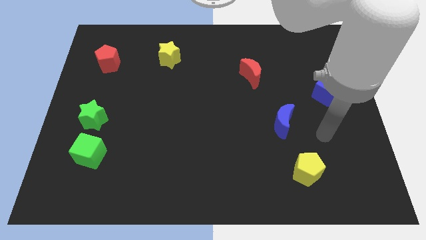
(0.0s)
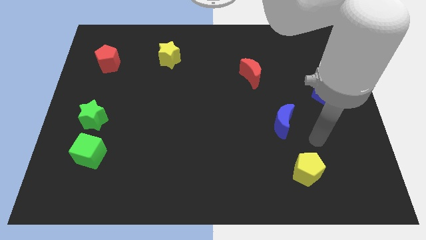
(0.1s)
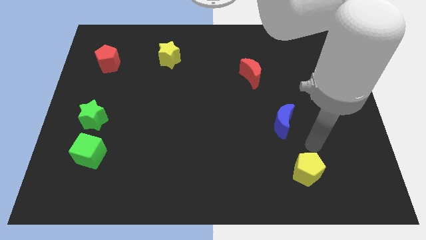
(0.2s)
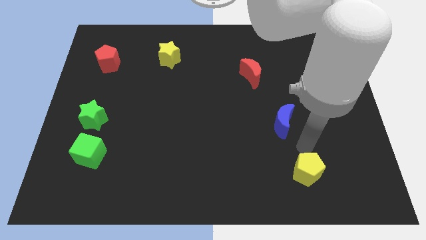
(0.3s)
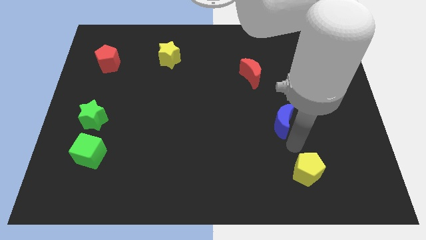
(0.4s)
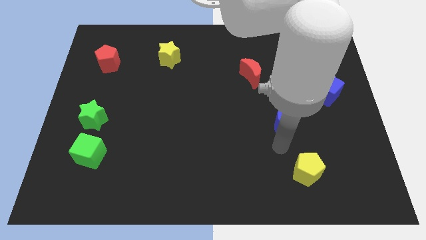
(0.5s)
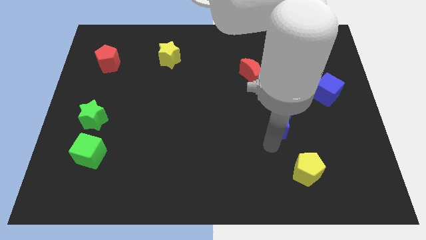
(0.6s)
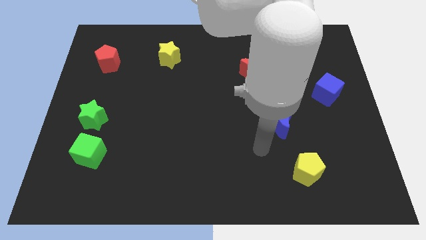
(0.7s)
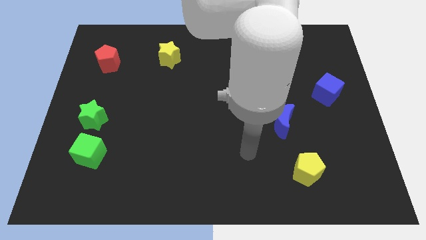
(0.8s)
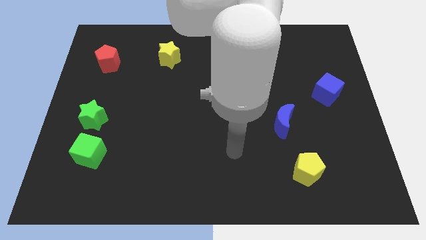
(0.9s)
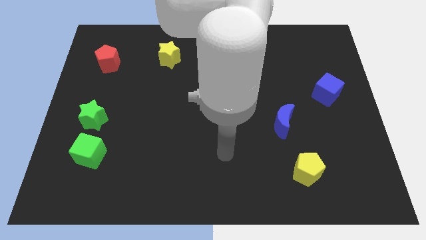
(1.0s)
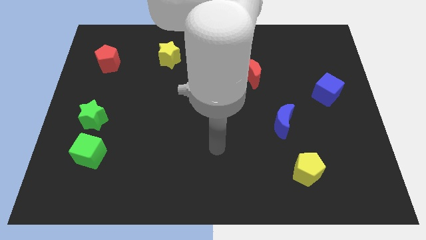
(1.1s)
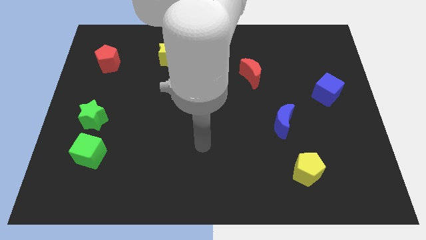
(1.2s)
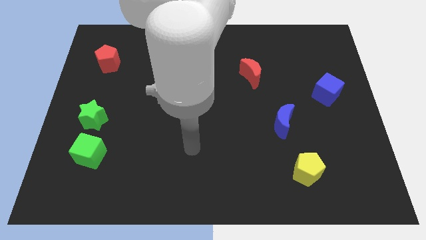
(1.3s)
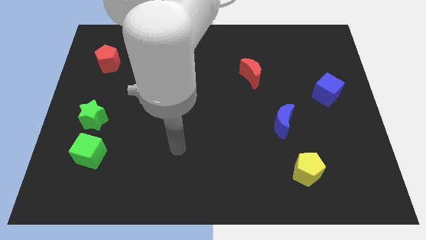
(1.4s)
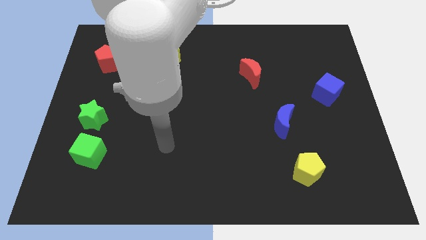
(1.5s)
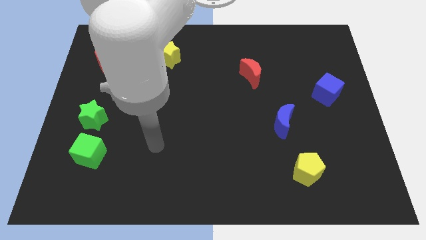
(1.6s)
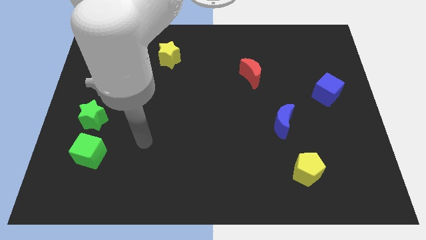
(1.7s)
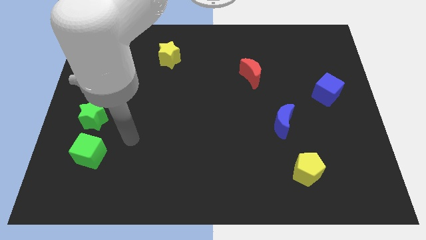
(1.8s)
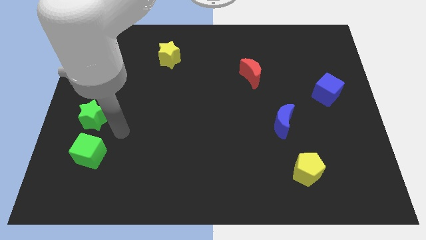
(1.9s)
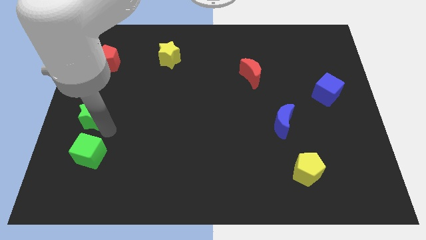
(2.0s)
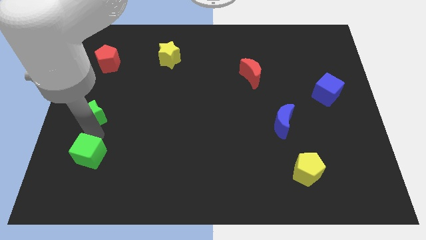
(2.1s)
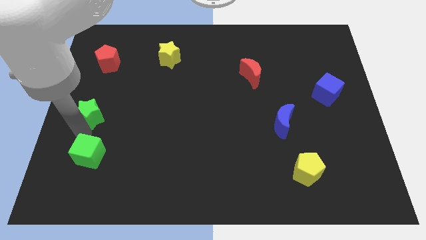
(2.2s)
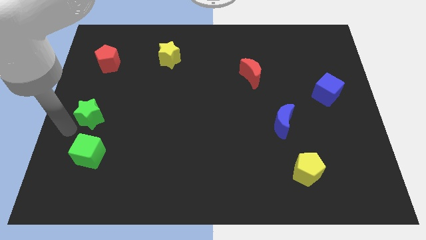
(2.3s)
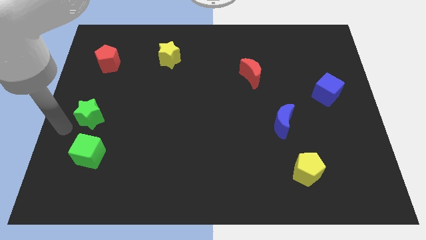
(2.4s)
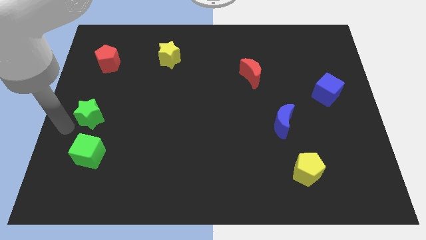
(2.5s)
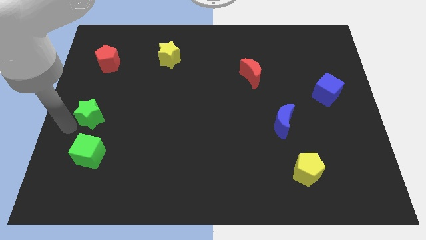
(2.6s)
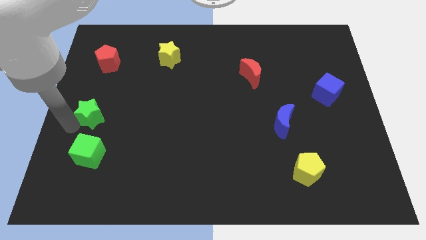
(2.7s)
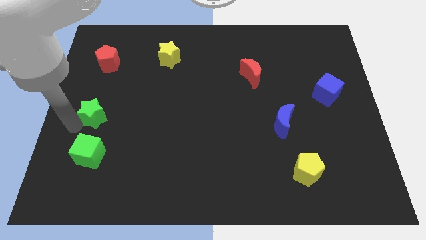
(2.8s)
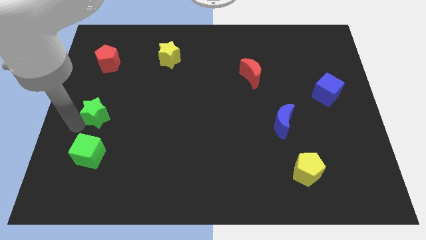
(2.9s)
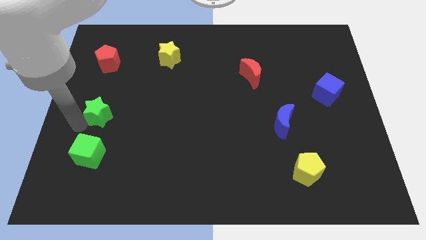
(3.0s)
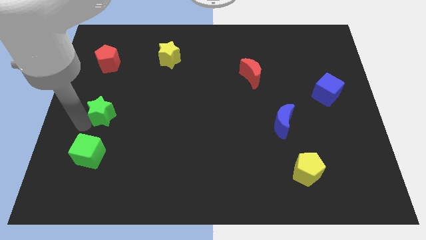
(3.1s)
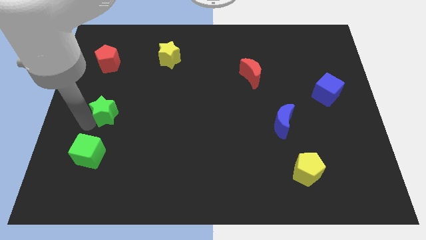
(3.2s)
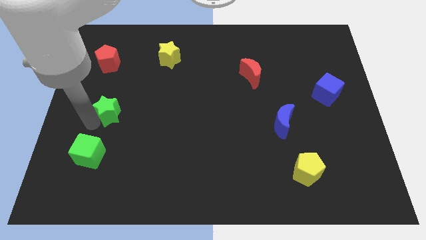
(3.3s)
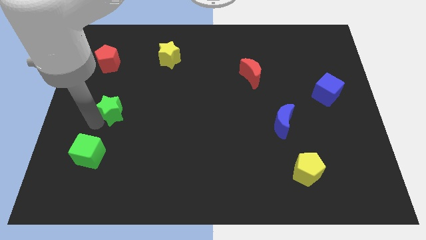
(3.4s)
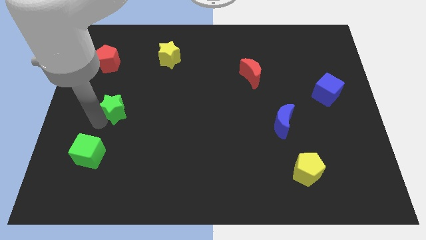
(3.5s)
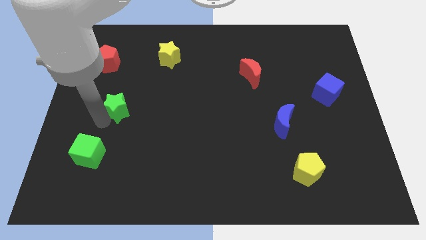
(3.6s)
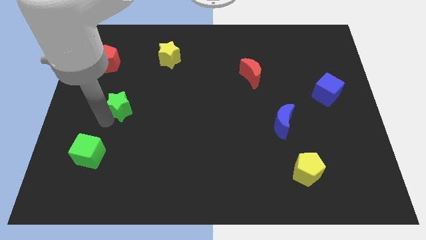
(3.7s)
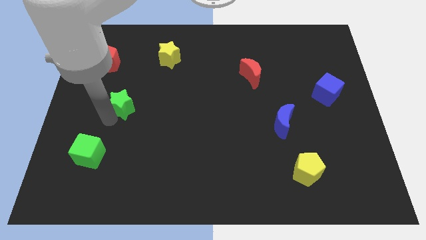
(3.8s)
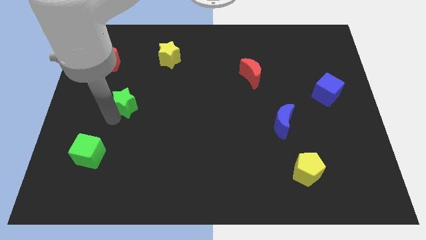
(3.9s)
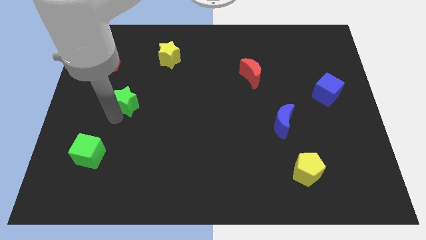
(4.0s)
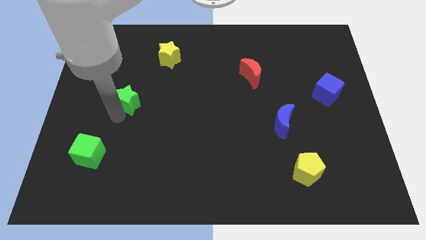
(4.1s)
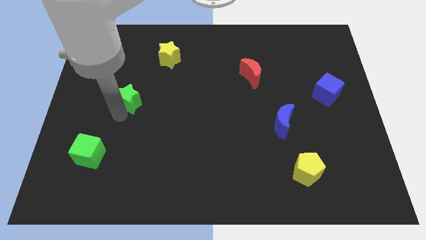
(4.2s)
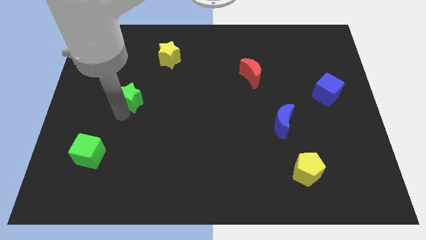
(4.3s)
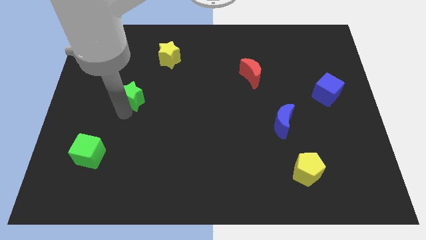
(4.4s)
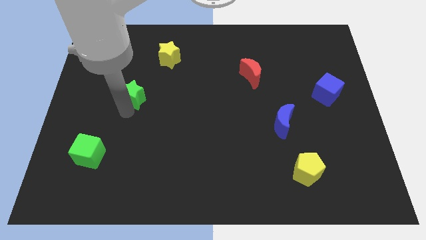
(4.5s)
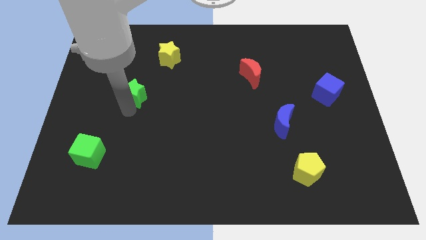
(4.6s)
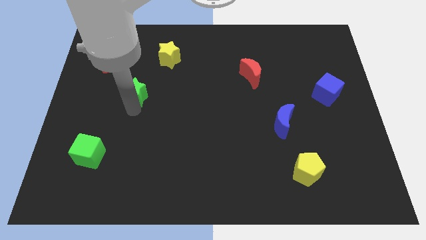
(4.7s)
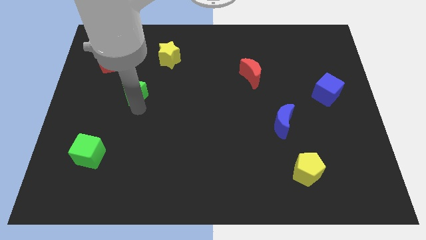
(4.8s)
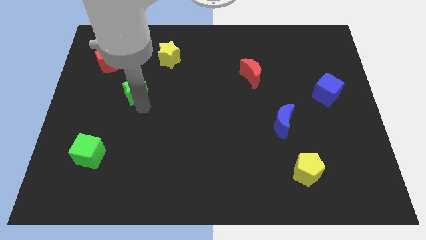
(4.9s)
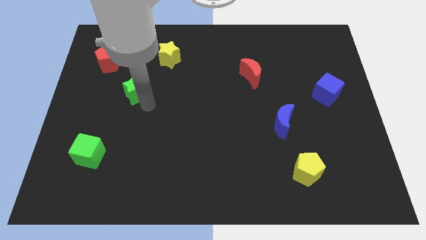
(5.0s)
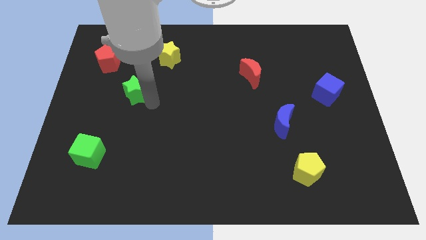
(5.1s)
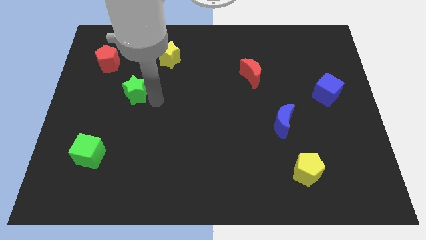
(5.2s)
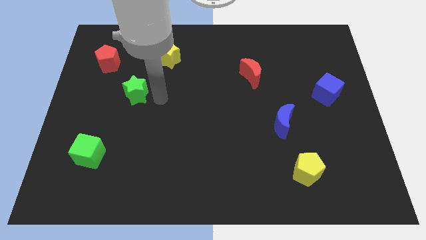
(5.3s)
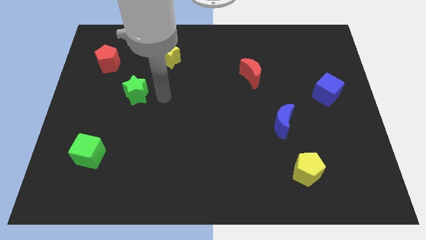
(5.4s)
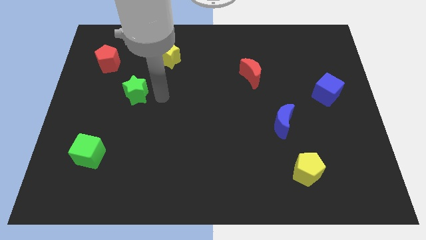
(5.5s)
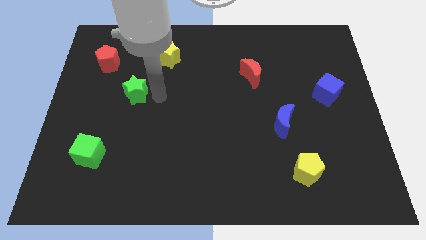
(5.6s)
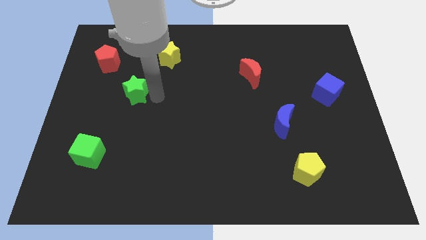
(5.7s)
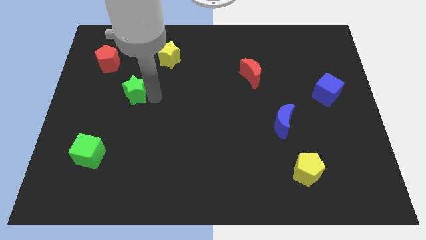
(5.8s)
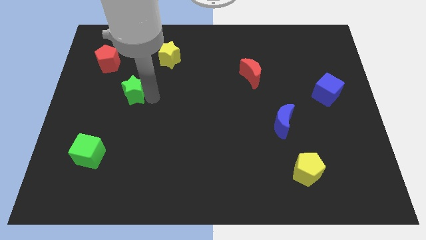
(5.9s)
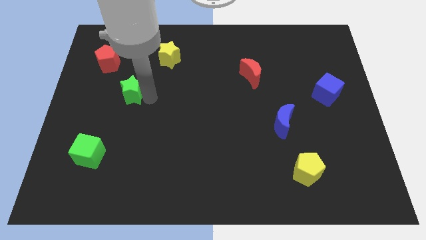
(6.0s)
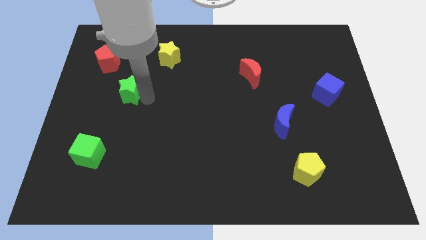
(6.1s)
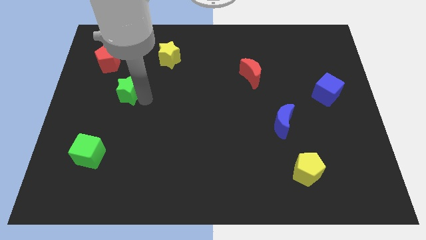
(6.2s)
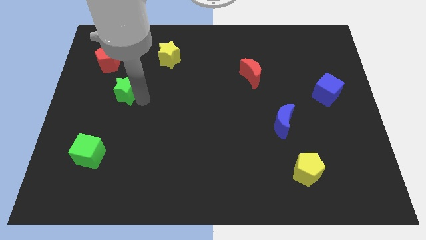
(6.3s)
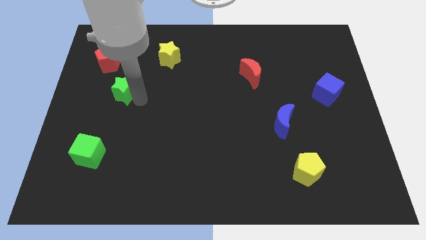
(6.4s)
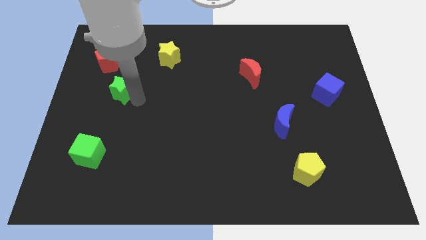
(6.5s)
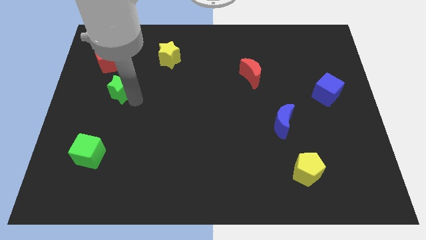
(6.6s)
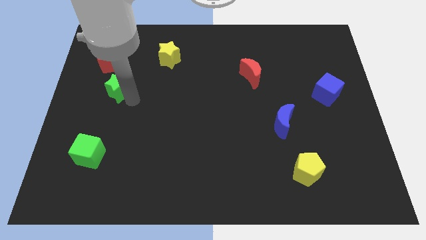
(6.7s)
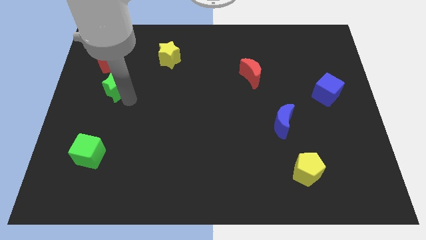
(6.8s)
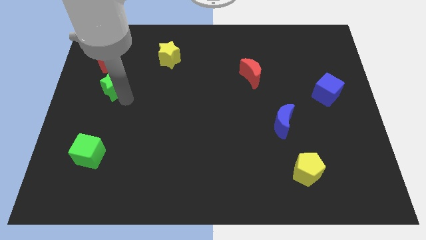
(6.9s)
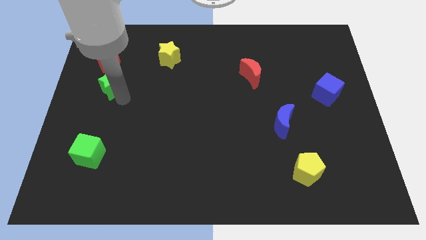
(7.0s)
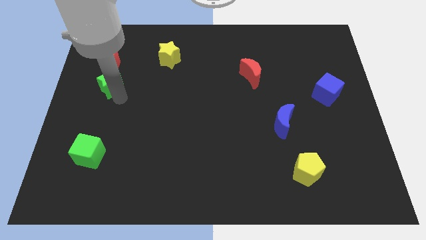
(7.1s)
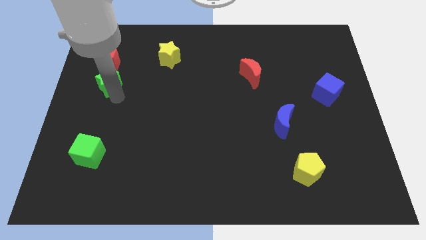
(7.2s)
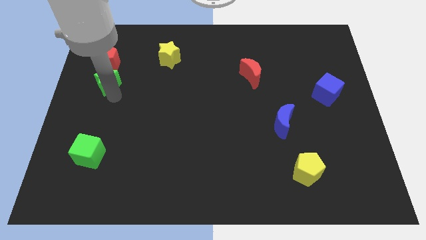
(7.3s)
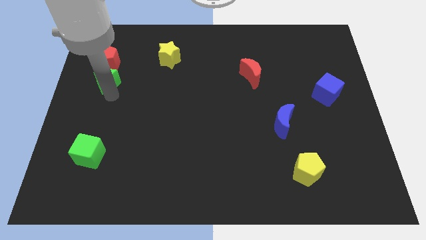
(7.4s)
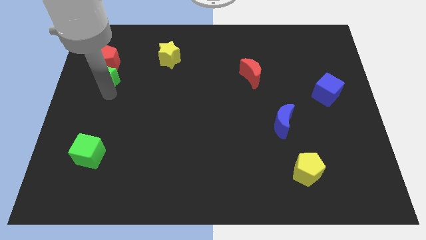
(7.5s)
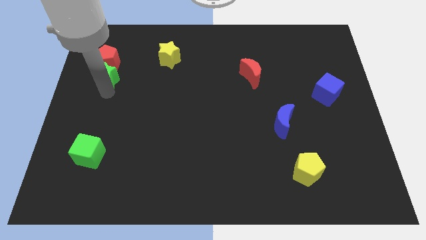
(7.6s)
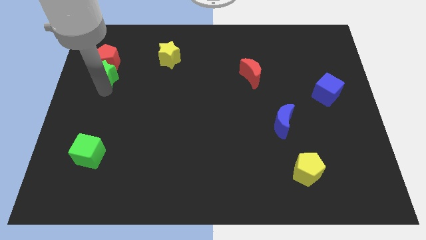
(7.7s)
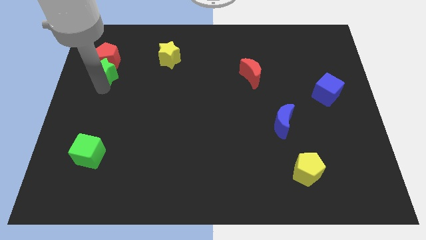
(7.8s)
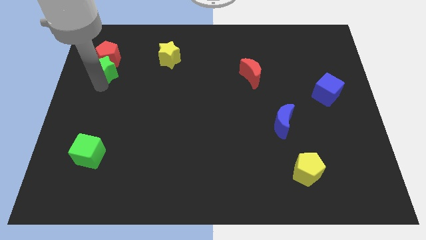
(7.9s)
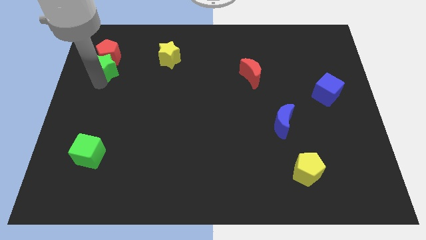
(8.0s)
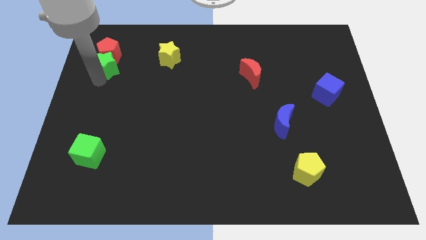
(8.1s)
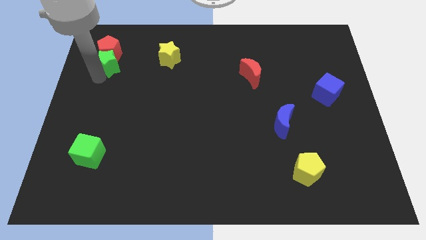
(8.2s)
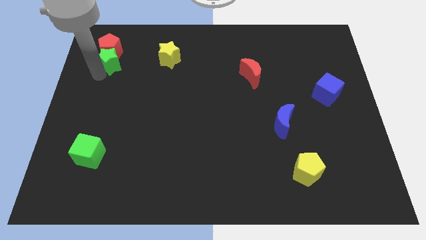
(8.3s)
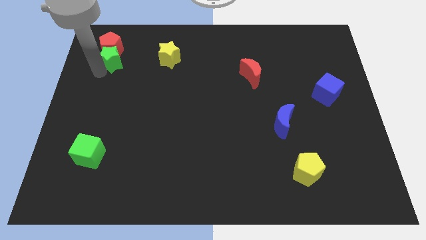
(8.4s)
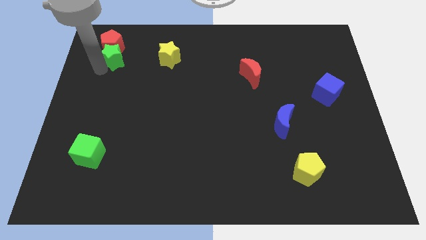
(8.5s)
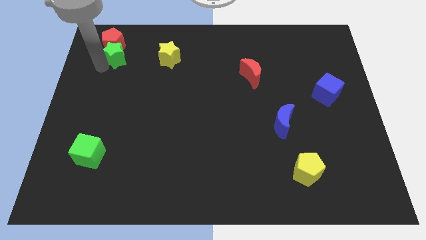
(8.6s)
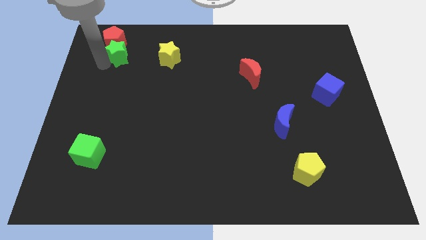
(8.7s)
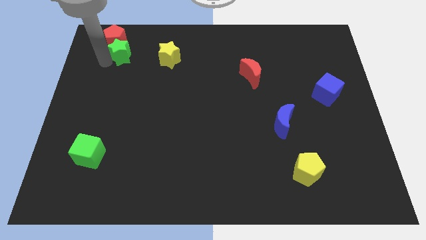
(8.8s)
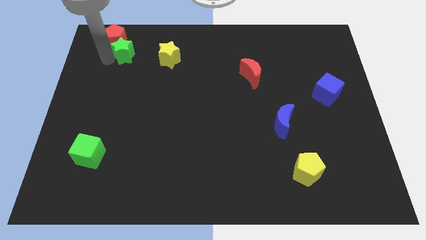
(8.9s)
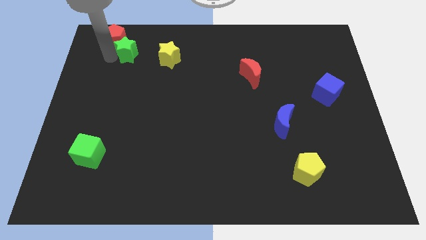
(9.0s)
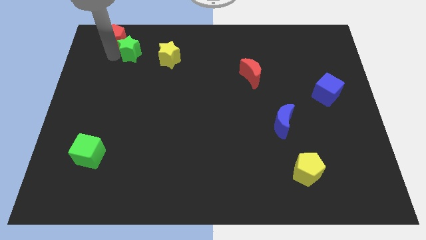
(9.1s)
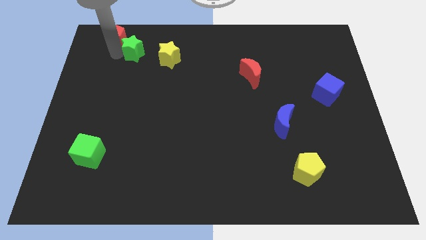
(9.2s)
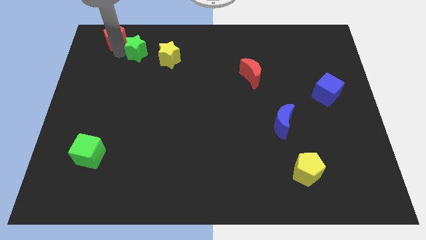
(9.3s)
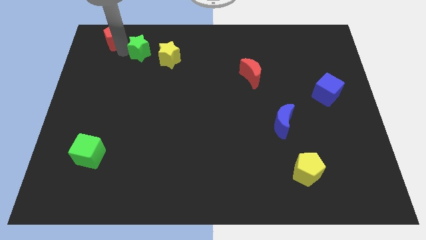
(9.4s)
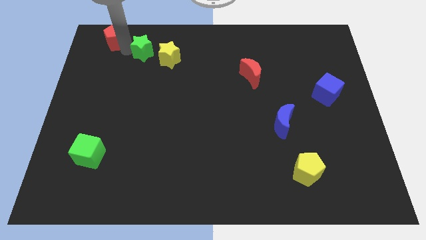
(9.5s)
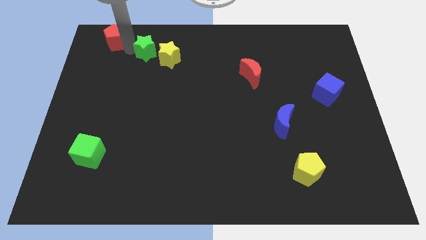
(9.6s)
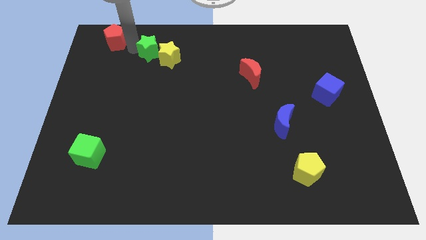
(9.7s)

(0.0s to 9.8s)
move the green star close to the yellow star
